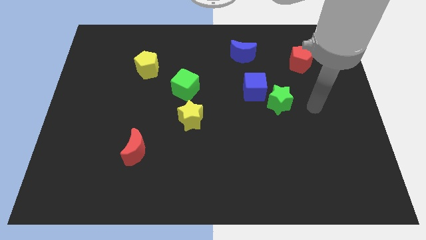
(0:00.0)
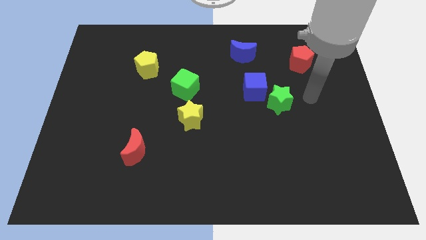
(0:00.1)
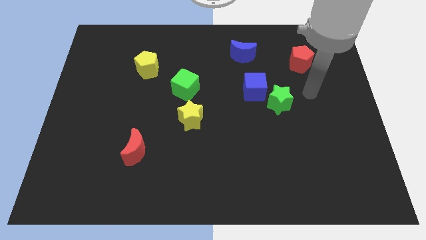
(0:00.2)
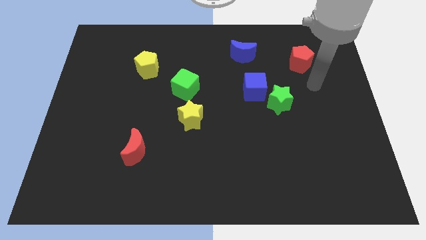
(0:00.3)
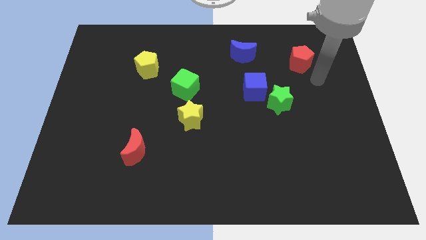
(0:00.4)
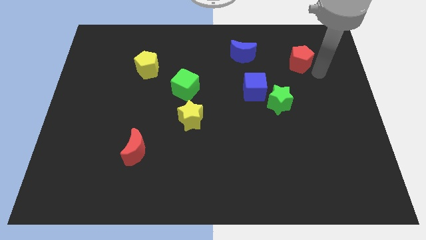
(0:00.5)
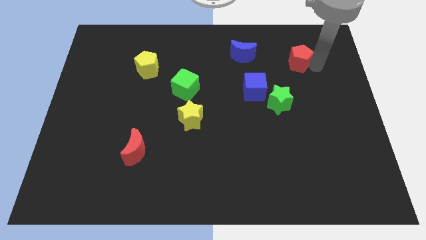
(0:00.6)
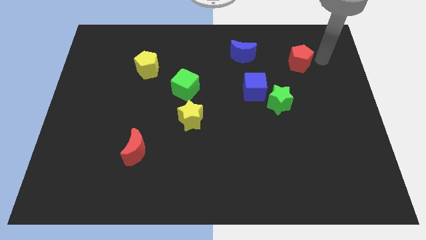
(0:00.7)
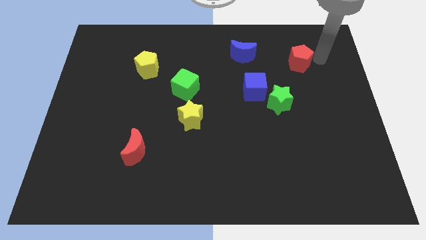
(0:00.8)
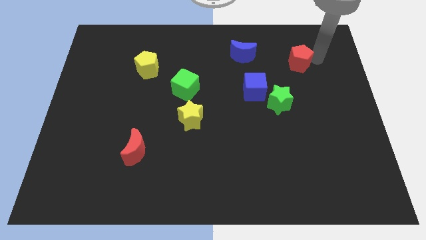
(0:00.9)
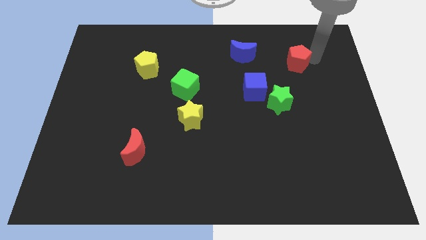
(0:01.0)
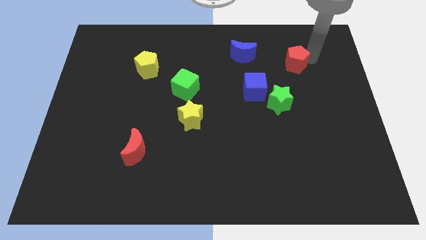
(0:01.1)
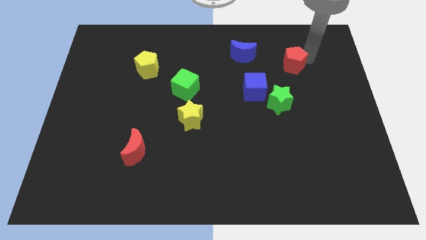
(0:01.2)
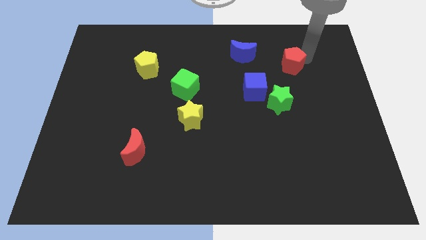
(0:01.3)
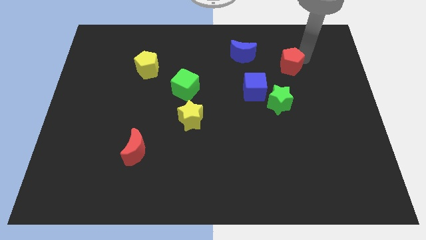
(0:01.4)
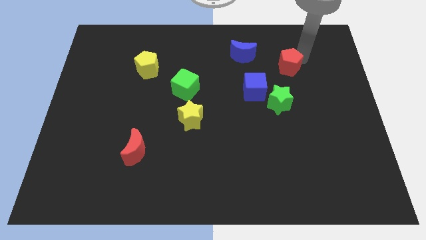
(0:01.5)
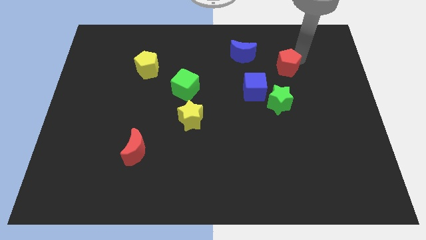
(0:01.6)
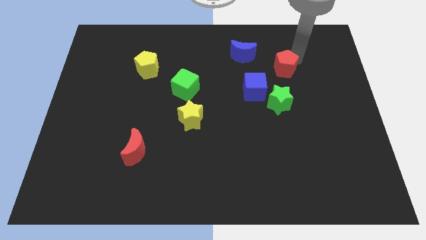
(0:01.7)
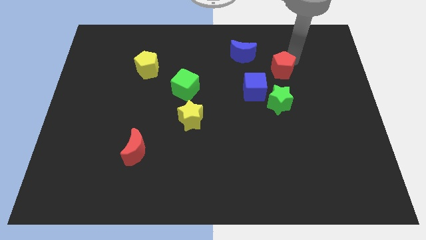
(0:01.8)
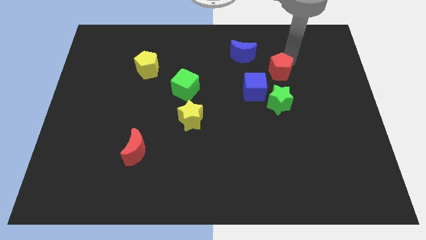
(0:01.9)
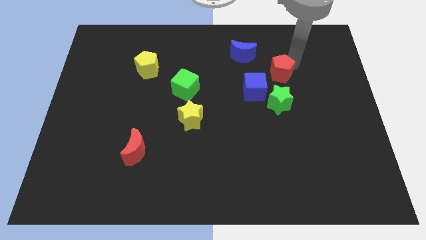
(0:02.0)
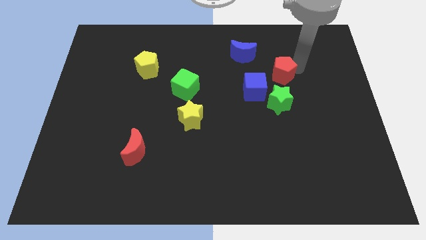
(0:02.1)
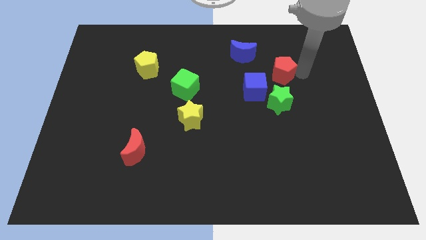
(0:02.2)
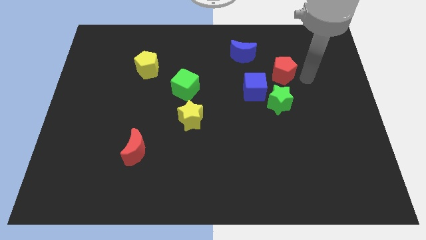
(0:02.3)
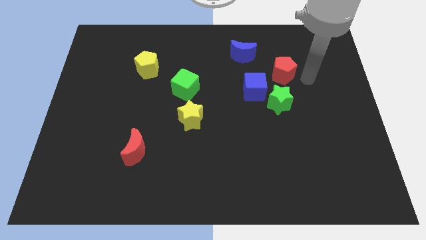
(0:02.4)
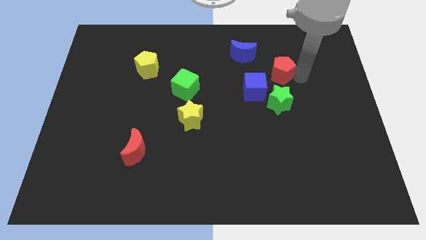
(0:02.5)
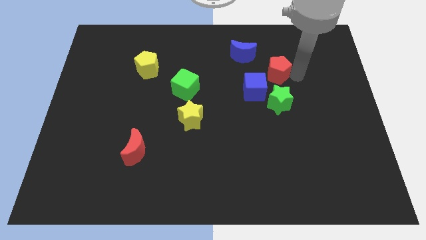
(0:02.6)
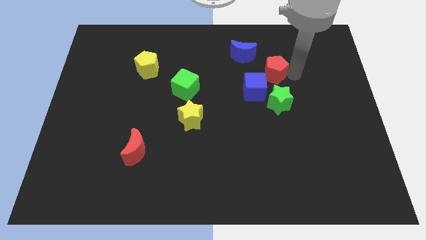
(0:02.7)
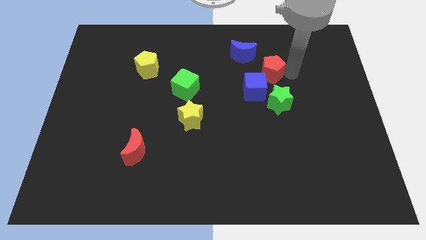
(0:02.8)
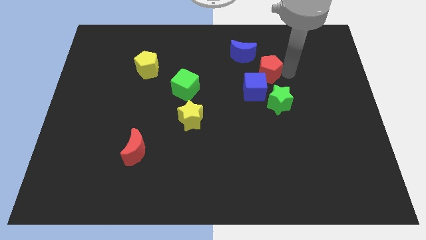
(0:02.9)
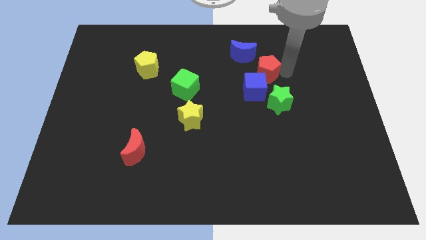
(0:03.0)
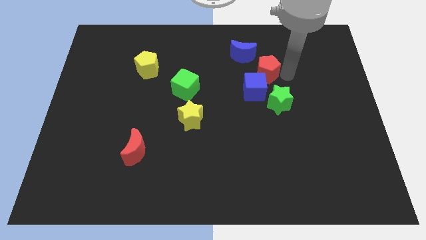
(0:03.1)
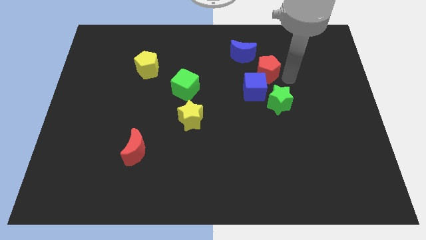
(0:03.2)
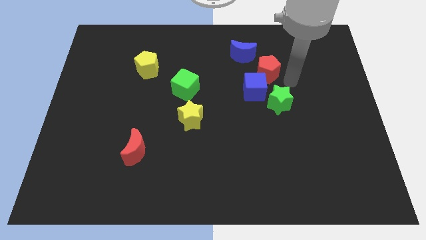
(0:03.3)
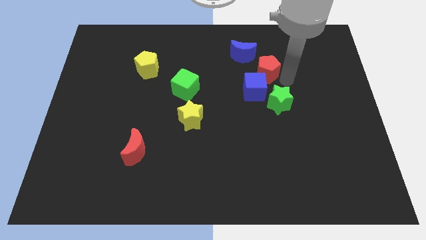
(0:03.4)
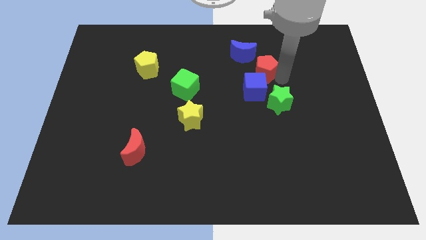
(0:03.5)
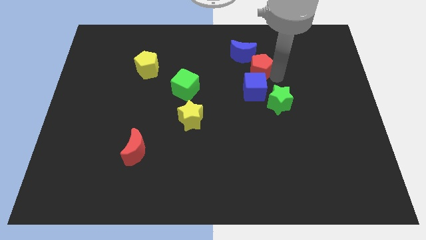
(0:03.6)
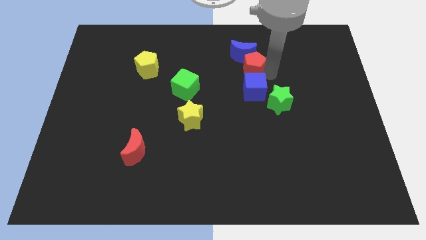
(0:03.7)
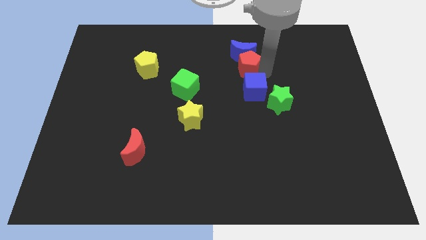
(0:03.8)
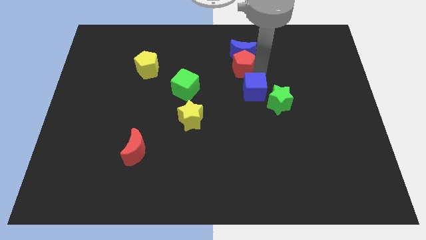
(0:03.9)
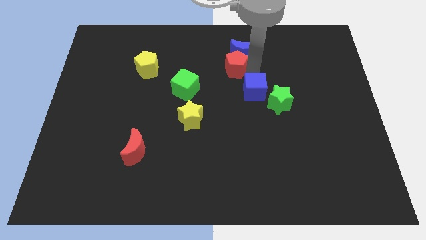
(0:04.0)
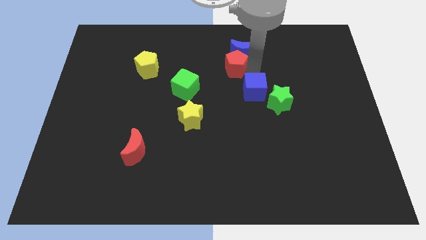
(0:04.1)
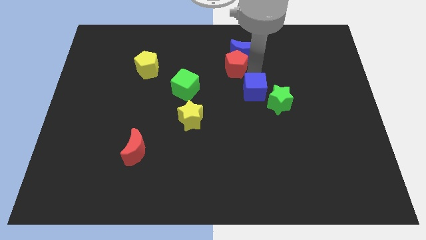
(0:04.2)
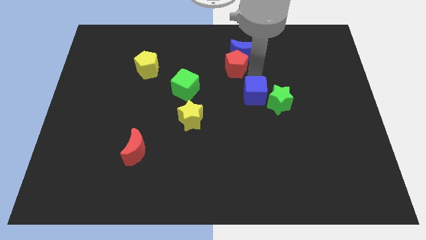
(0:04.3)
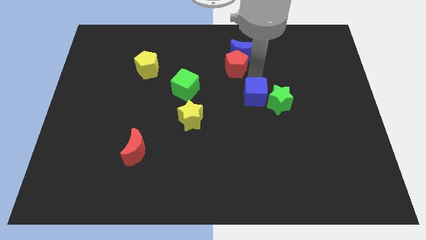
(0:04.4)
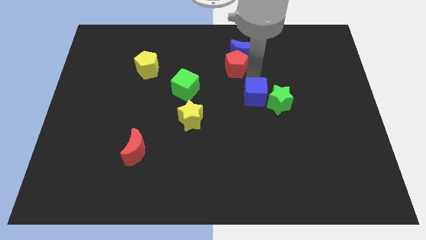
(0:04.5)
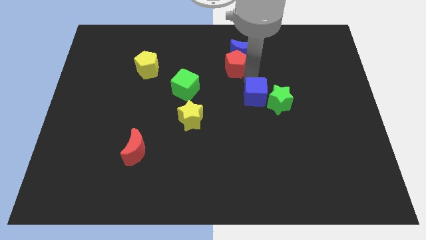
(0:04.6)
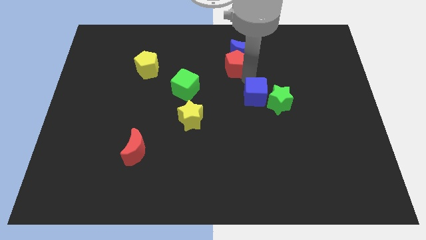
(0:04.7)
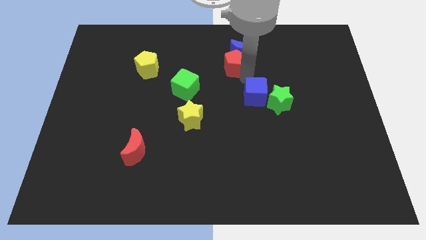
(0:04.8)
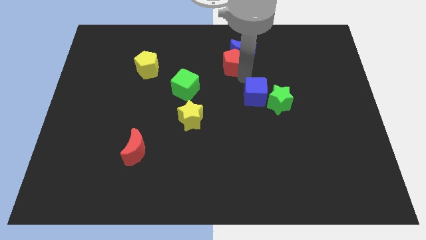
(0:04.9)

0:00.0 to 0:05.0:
push the red pentagon left of the blue moon

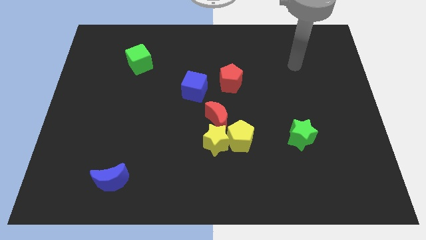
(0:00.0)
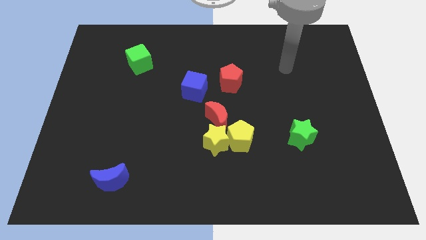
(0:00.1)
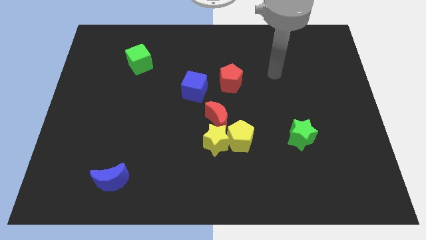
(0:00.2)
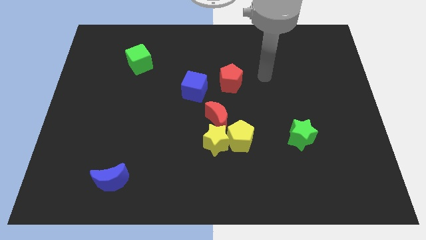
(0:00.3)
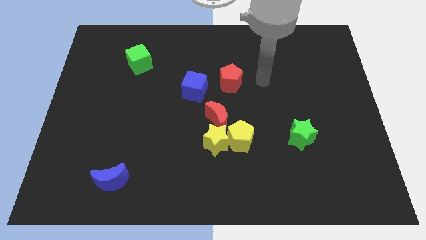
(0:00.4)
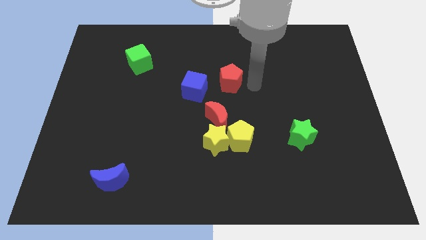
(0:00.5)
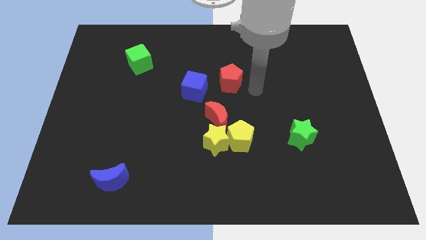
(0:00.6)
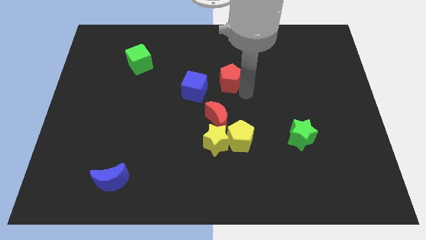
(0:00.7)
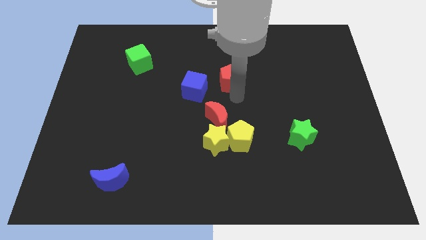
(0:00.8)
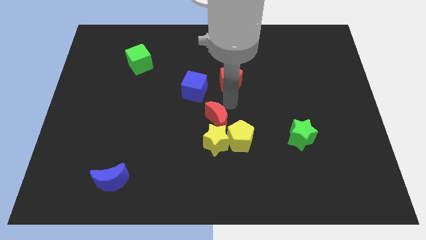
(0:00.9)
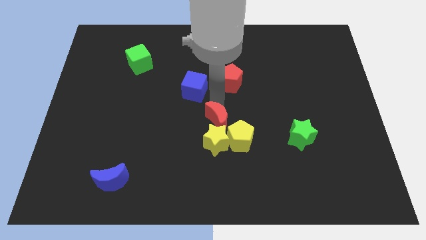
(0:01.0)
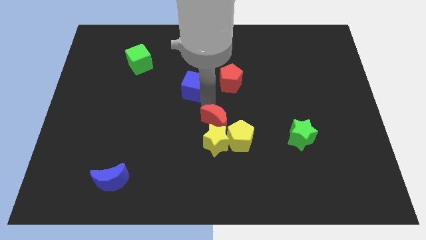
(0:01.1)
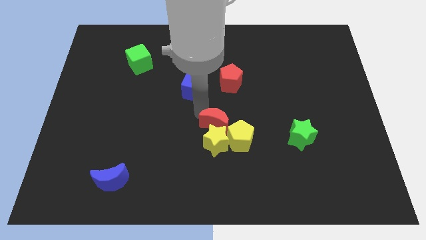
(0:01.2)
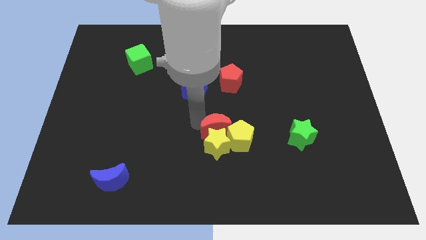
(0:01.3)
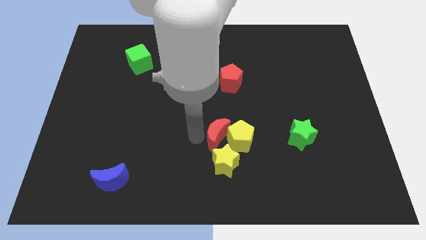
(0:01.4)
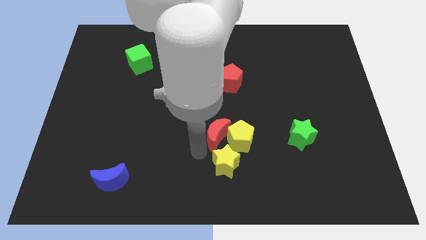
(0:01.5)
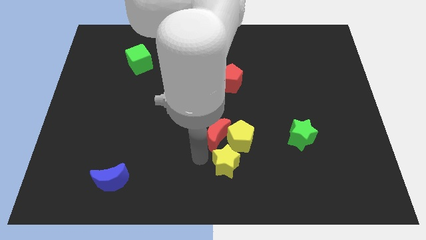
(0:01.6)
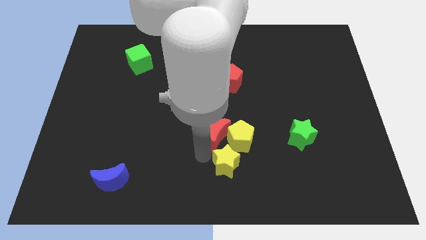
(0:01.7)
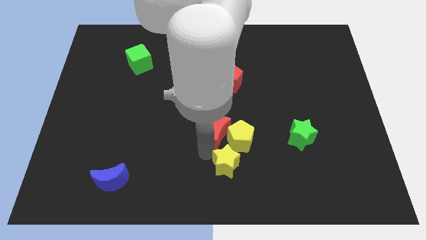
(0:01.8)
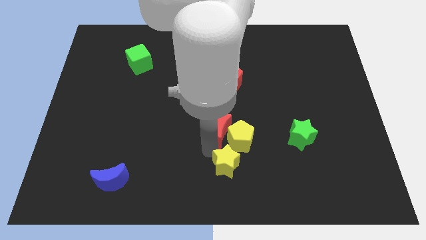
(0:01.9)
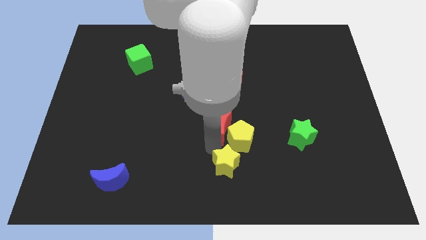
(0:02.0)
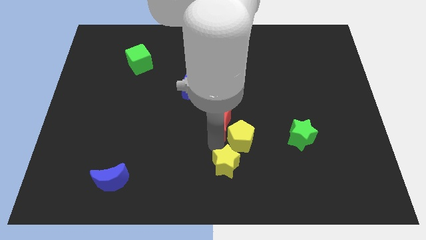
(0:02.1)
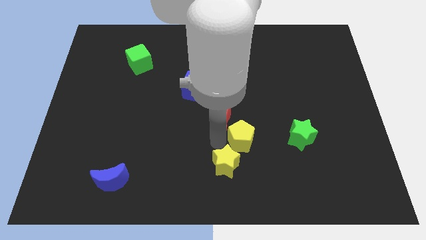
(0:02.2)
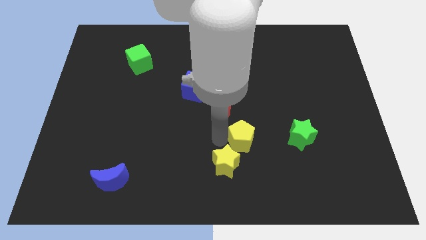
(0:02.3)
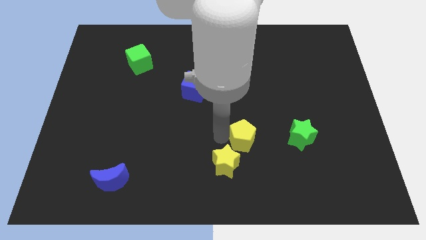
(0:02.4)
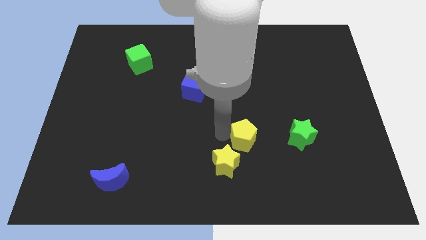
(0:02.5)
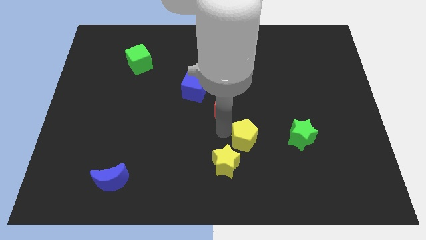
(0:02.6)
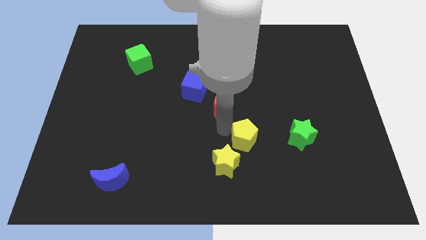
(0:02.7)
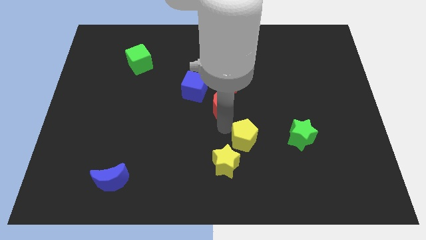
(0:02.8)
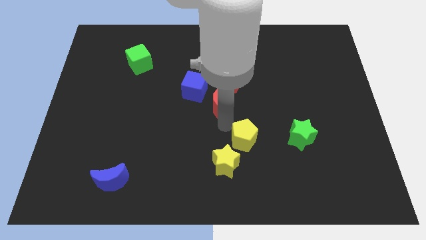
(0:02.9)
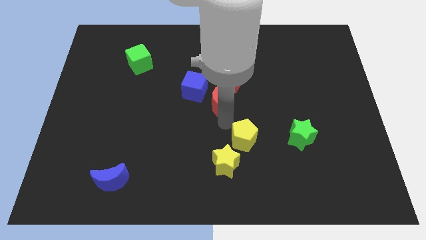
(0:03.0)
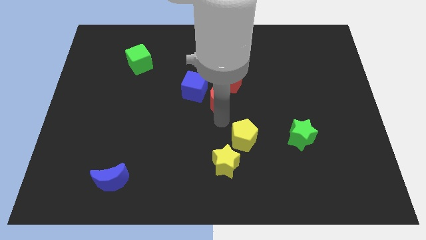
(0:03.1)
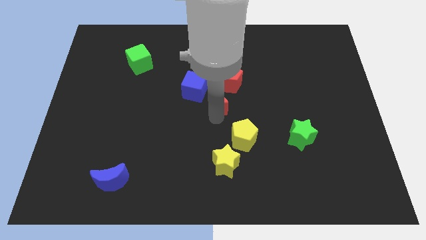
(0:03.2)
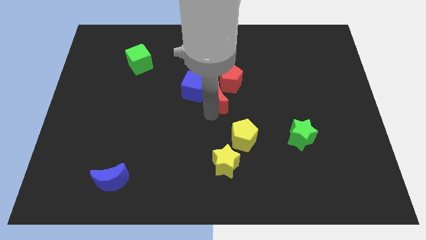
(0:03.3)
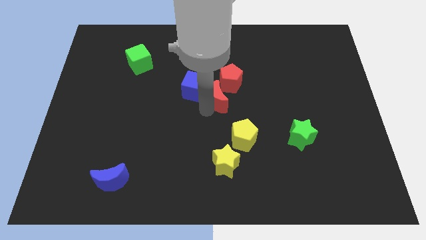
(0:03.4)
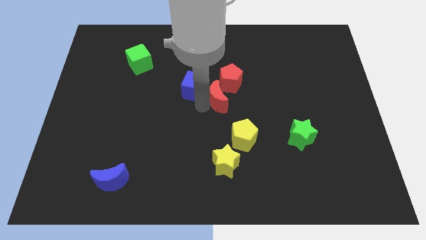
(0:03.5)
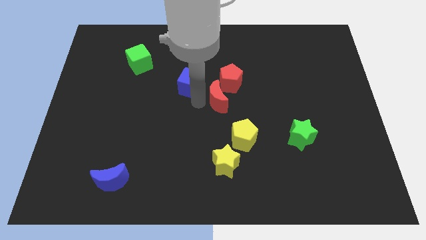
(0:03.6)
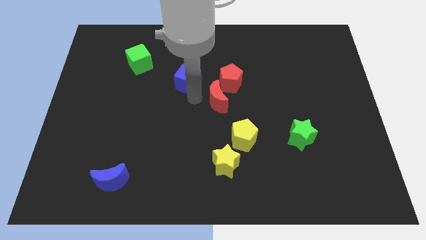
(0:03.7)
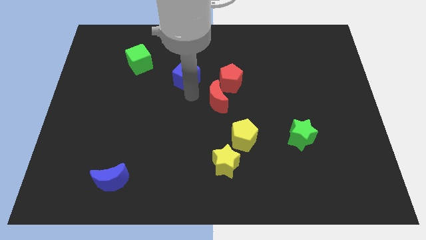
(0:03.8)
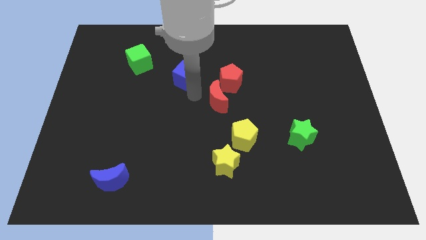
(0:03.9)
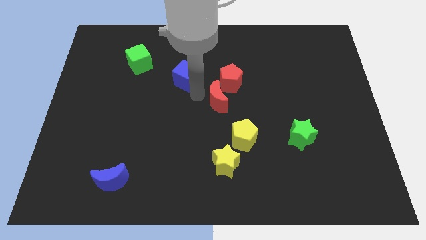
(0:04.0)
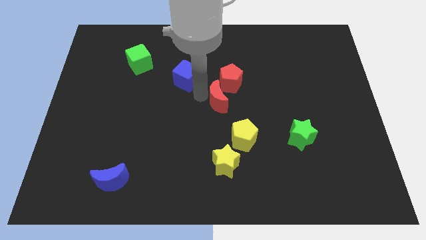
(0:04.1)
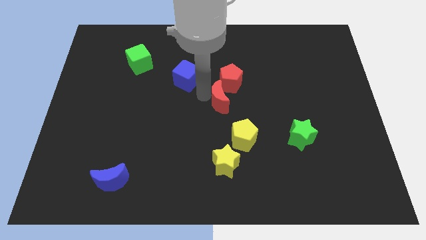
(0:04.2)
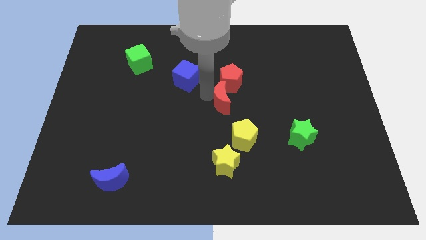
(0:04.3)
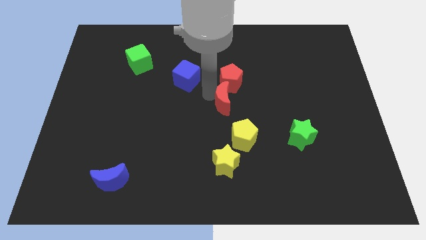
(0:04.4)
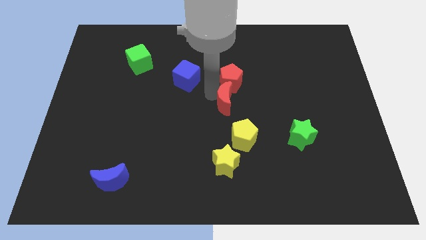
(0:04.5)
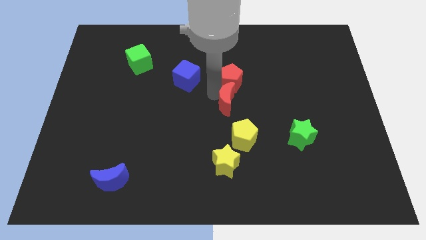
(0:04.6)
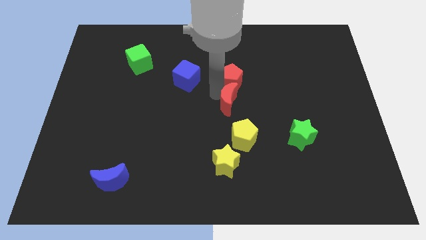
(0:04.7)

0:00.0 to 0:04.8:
put the red moon to the bottom right side of the red pentagon
